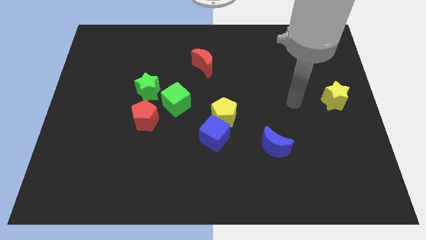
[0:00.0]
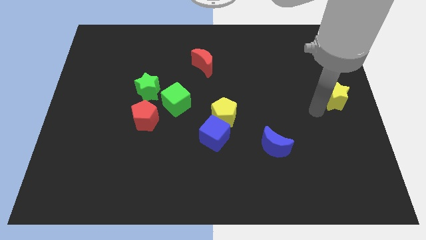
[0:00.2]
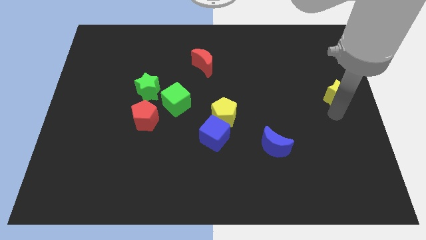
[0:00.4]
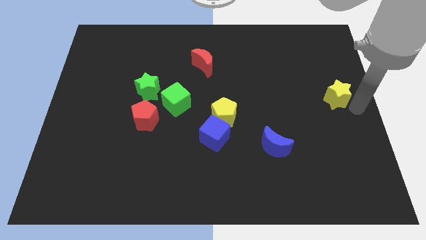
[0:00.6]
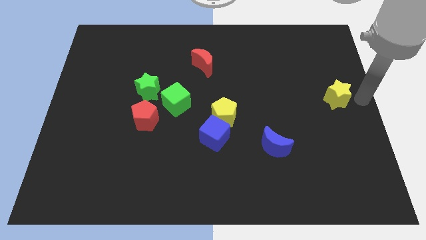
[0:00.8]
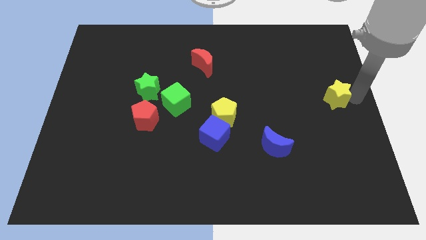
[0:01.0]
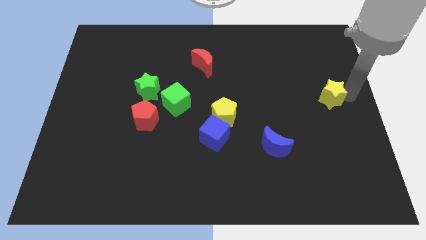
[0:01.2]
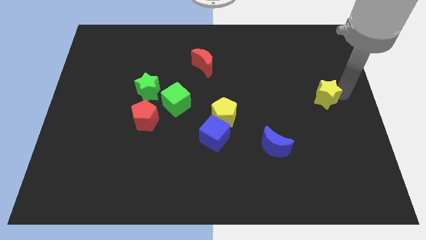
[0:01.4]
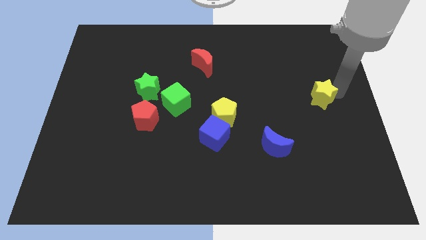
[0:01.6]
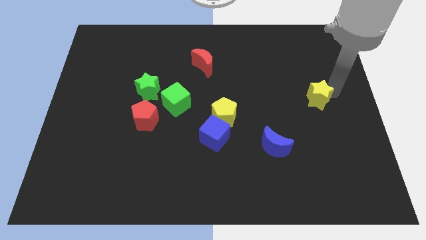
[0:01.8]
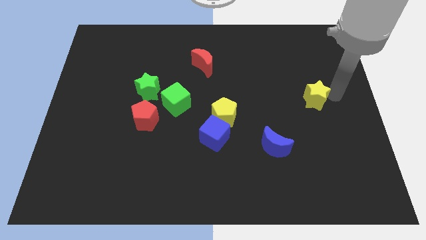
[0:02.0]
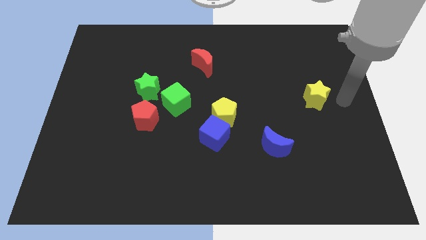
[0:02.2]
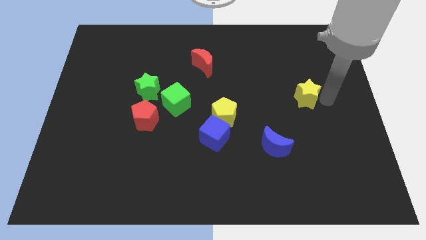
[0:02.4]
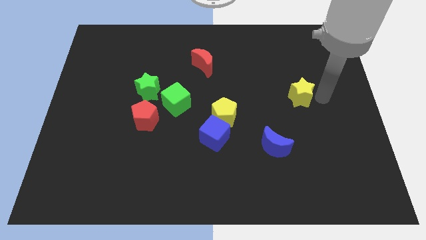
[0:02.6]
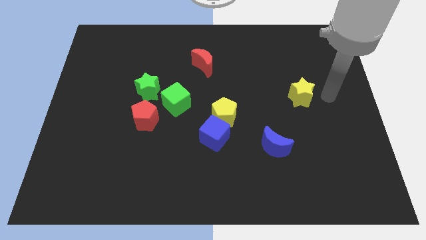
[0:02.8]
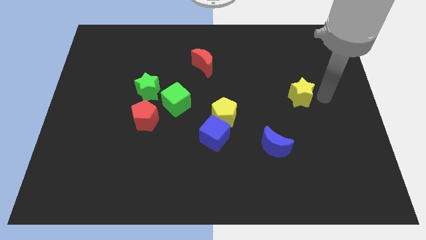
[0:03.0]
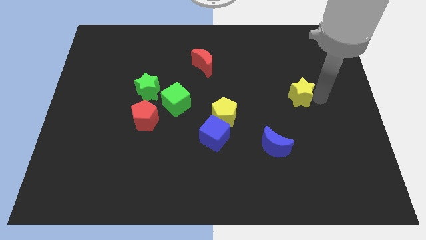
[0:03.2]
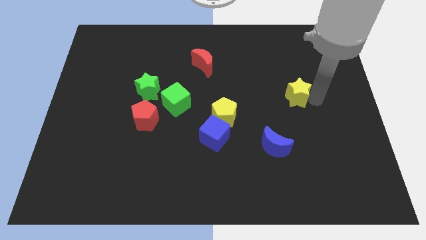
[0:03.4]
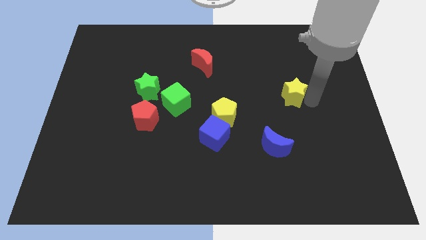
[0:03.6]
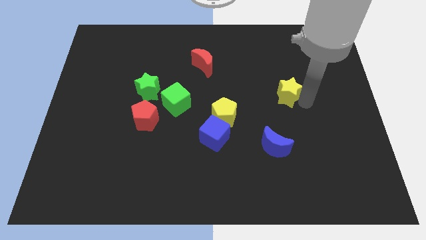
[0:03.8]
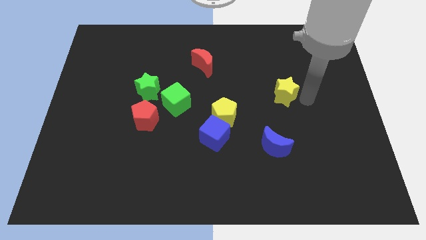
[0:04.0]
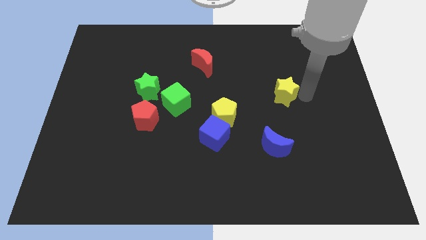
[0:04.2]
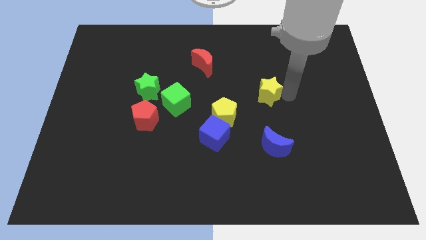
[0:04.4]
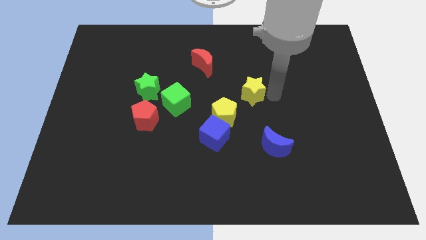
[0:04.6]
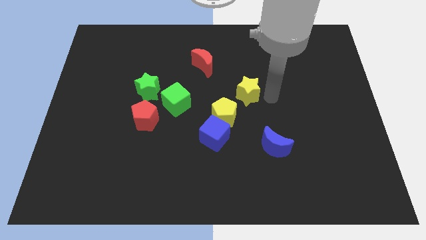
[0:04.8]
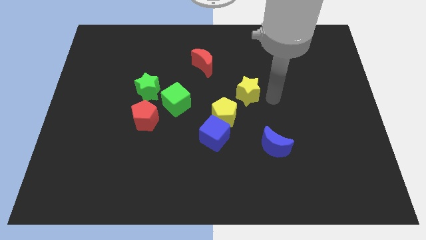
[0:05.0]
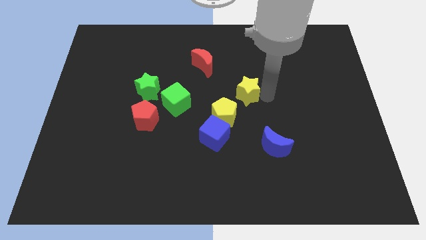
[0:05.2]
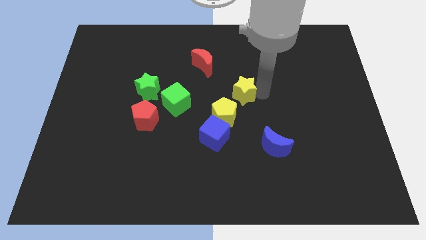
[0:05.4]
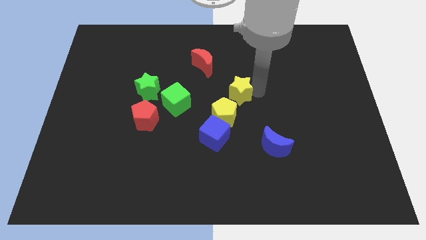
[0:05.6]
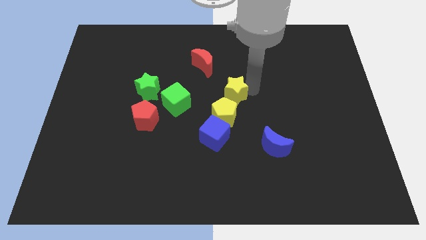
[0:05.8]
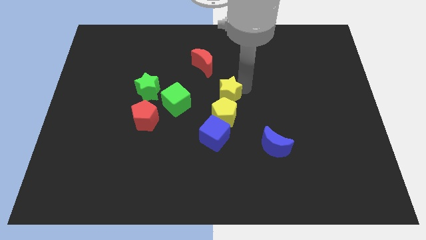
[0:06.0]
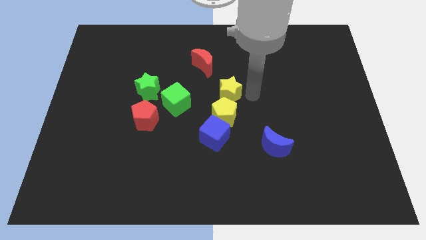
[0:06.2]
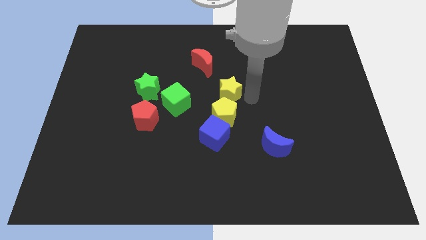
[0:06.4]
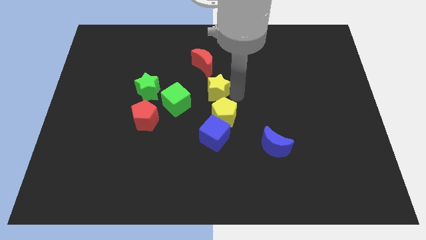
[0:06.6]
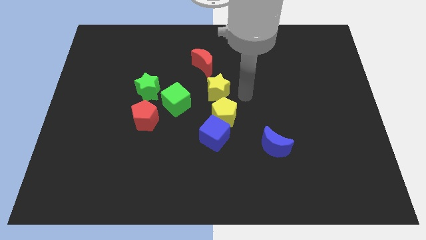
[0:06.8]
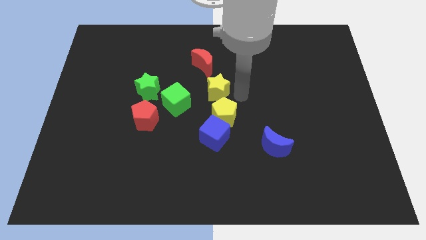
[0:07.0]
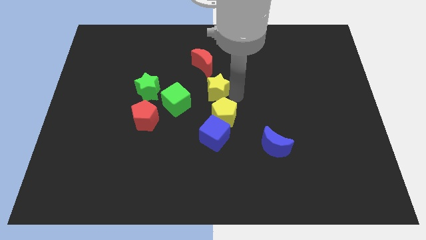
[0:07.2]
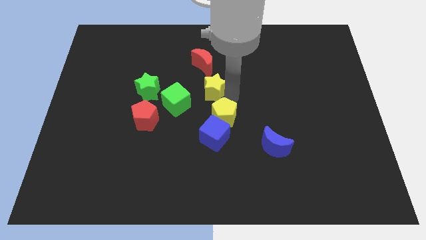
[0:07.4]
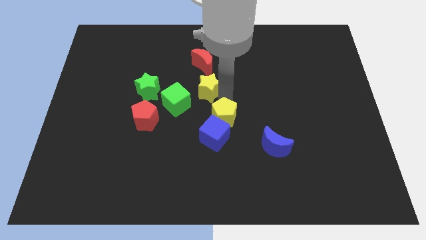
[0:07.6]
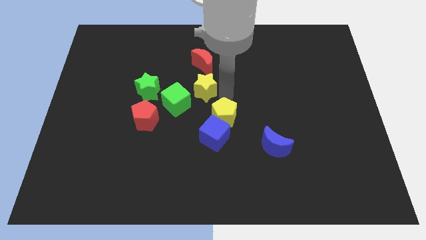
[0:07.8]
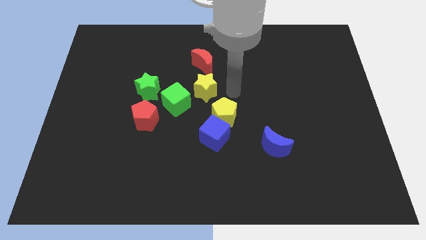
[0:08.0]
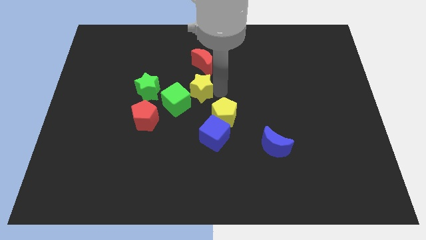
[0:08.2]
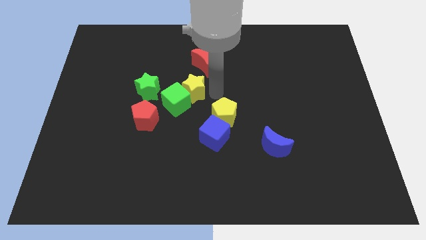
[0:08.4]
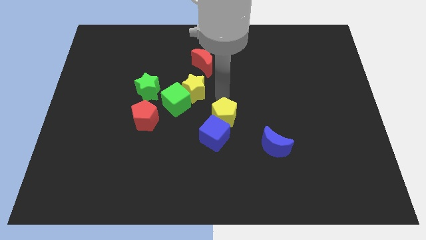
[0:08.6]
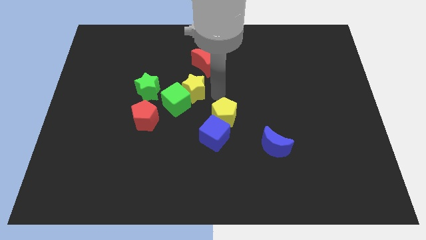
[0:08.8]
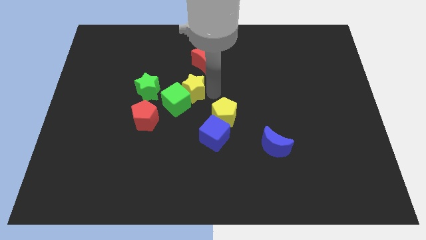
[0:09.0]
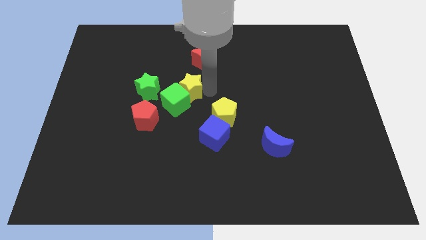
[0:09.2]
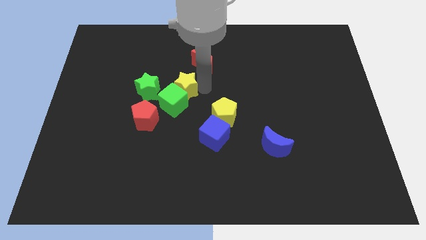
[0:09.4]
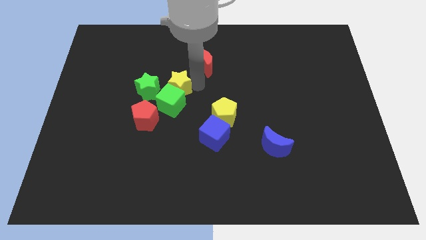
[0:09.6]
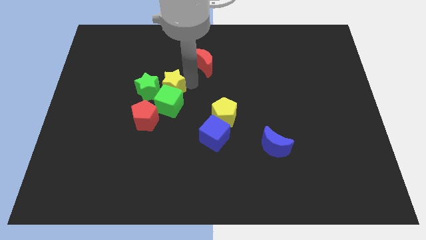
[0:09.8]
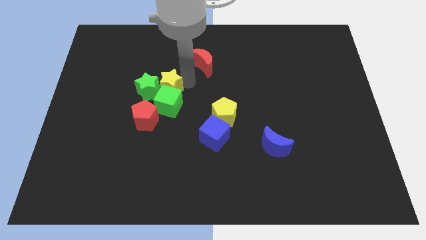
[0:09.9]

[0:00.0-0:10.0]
push the yellow star close to the green star

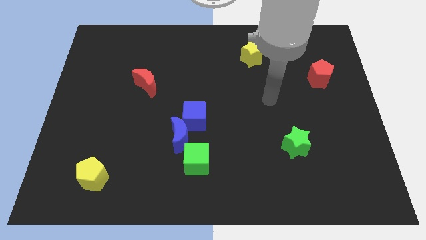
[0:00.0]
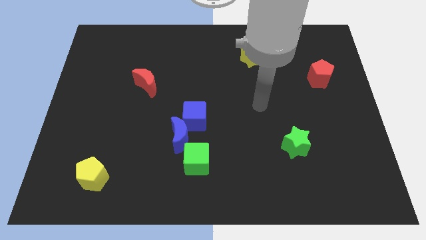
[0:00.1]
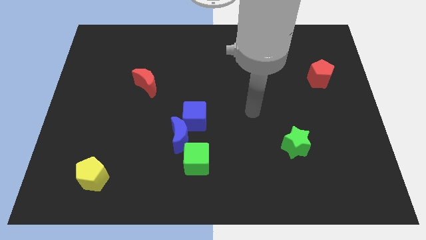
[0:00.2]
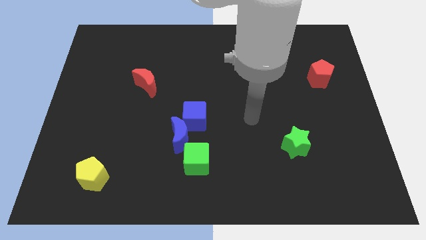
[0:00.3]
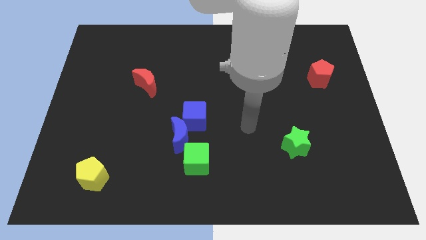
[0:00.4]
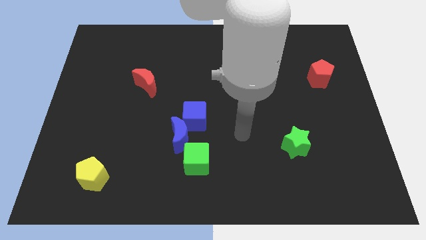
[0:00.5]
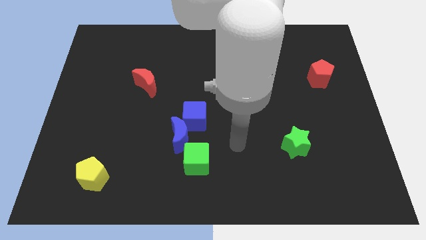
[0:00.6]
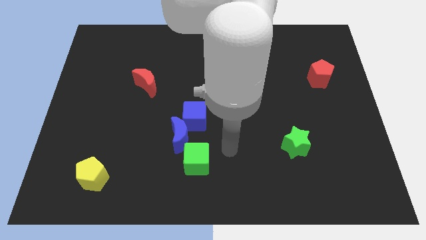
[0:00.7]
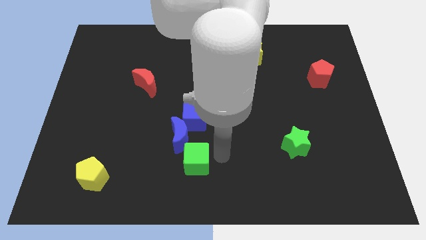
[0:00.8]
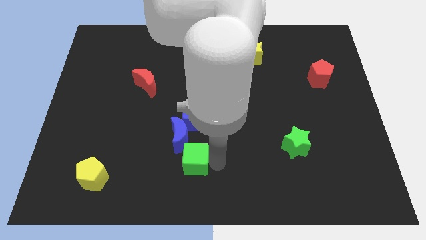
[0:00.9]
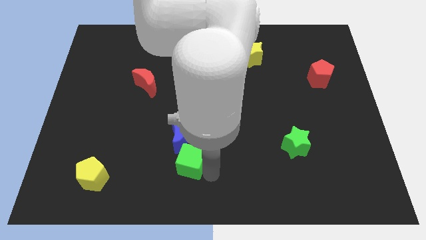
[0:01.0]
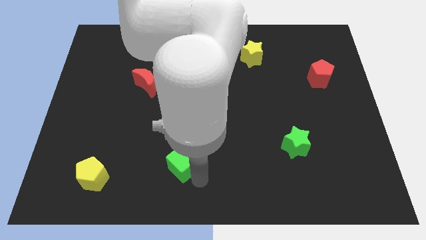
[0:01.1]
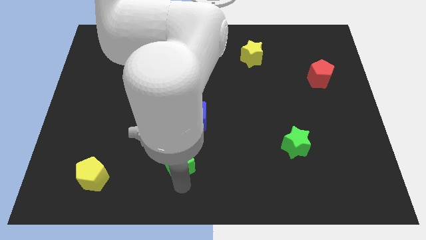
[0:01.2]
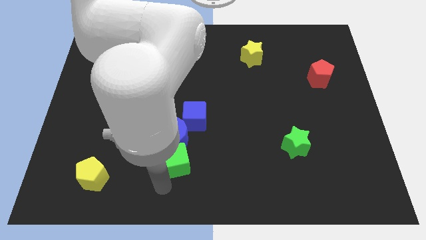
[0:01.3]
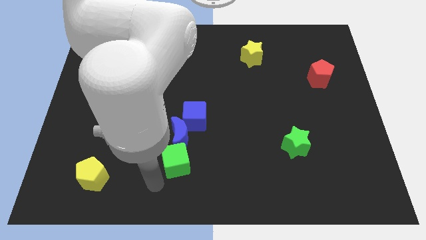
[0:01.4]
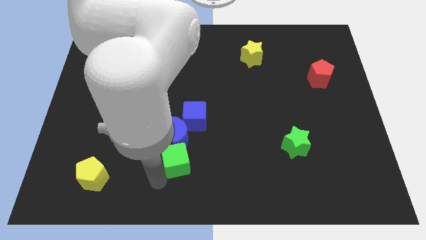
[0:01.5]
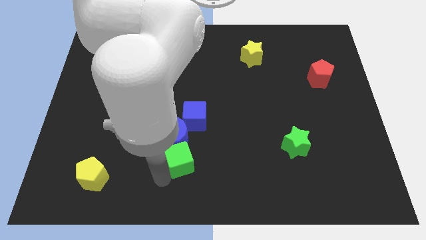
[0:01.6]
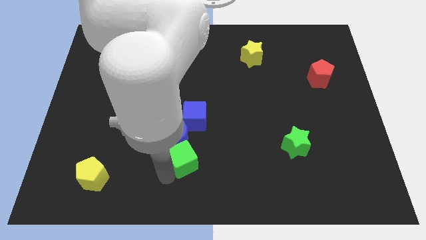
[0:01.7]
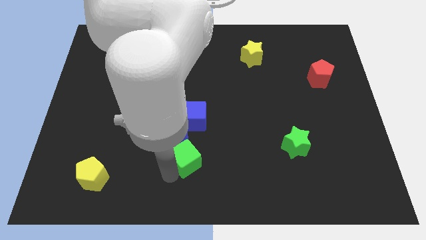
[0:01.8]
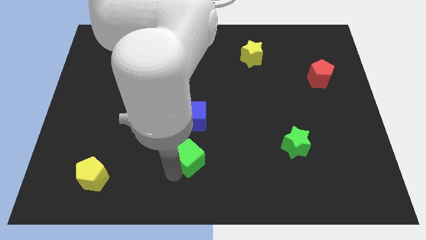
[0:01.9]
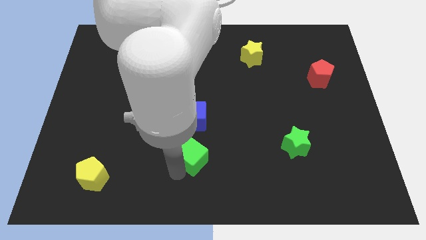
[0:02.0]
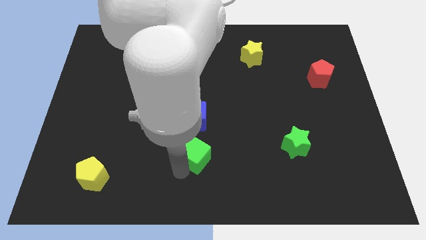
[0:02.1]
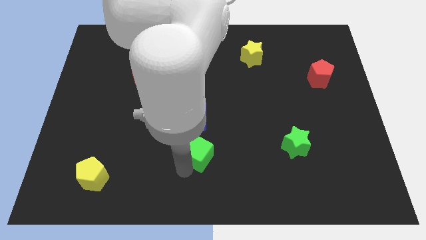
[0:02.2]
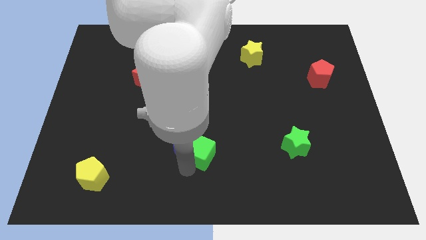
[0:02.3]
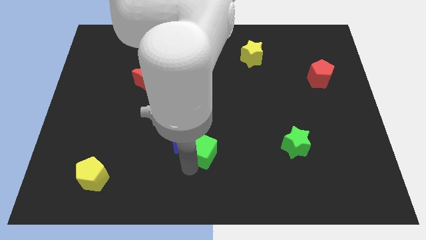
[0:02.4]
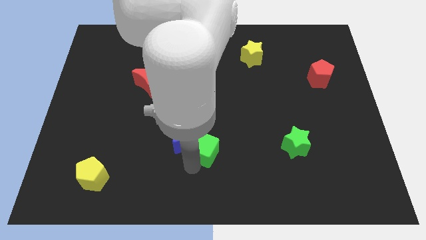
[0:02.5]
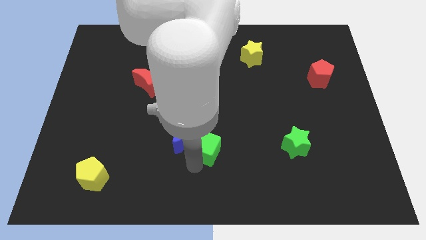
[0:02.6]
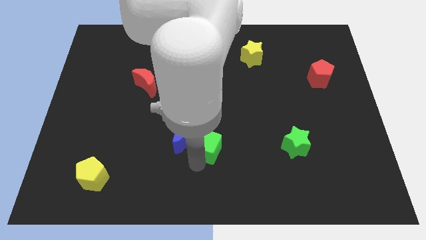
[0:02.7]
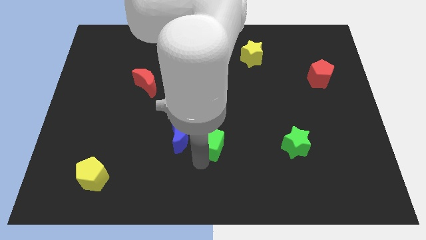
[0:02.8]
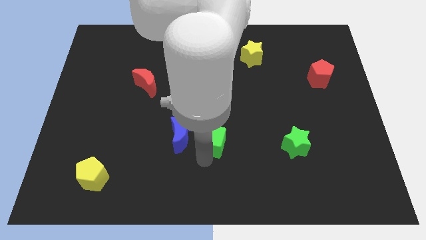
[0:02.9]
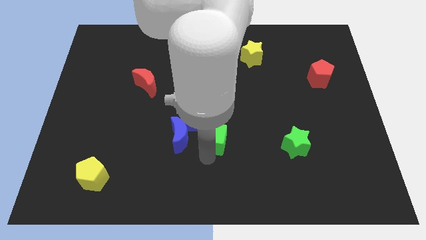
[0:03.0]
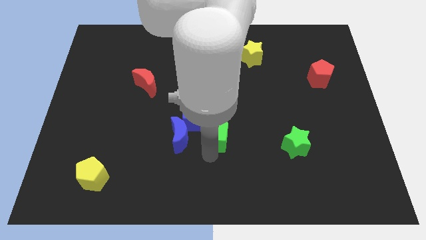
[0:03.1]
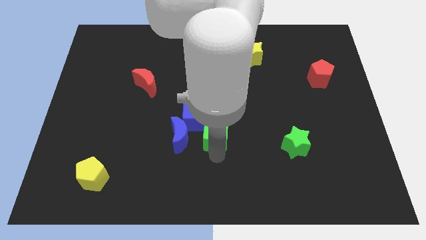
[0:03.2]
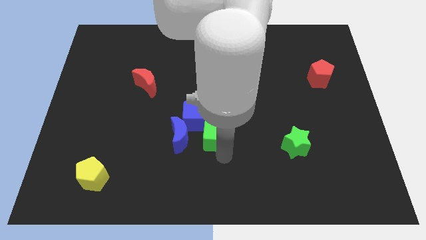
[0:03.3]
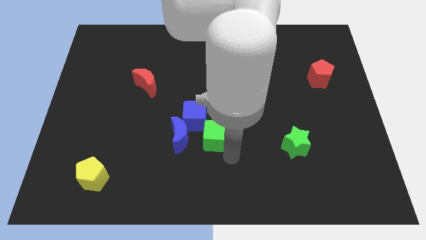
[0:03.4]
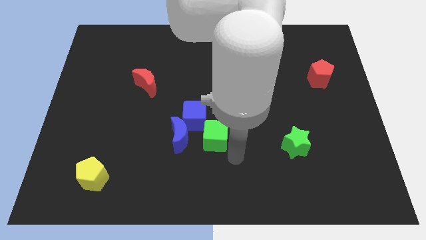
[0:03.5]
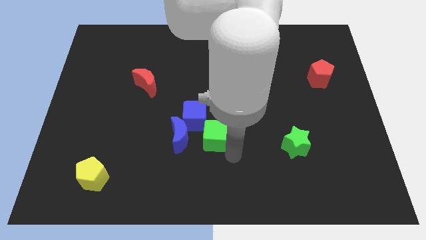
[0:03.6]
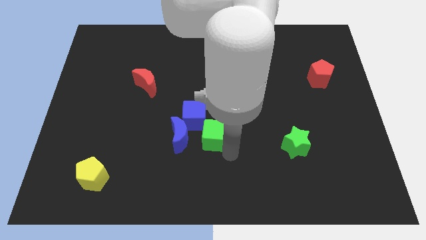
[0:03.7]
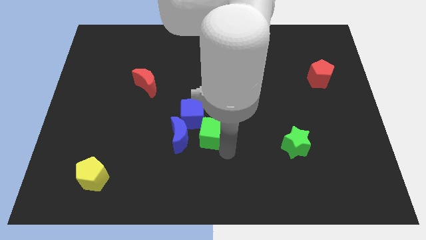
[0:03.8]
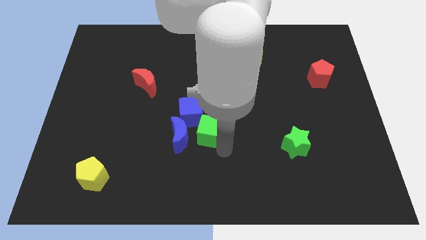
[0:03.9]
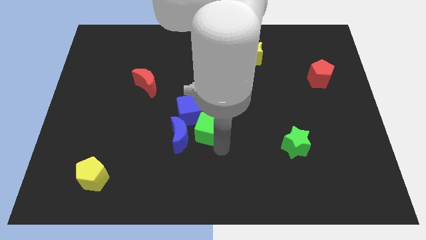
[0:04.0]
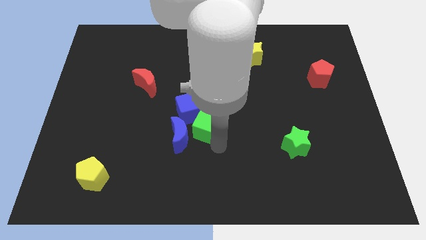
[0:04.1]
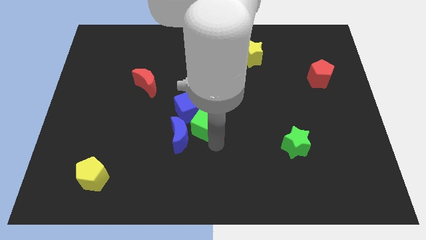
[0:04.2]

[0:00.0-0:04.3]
push the green cube to the blue cube
